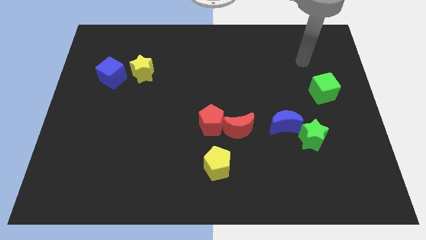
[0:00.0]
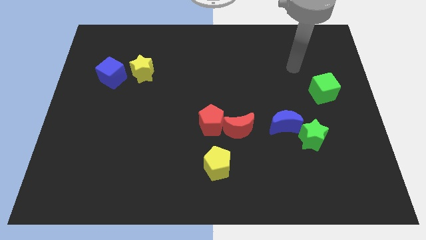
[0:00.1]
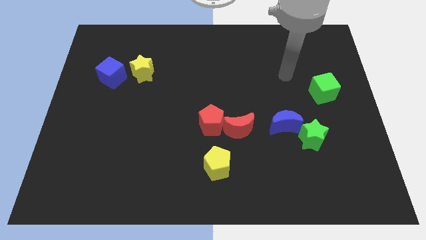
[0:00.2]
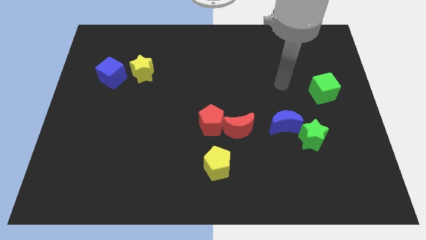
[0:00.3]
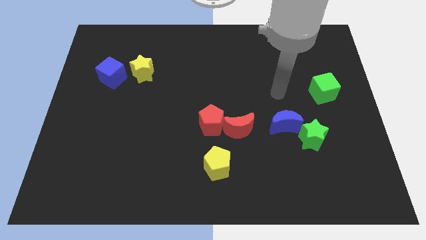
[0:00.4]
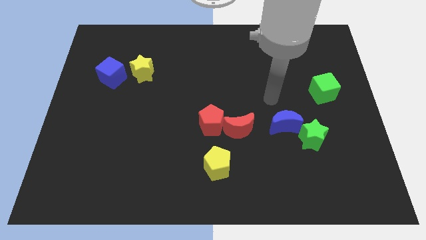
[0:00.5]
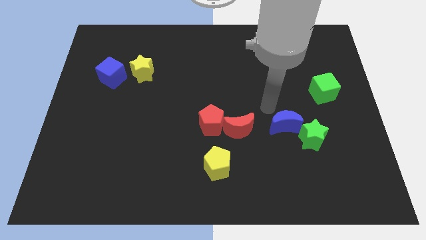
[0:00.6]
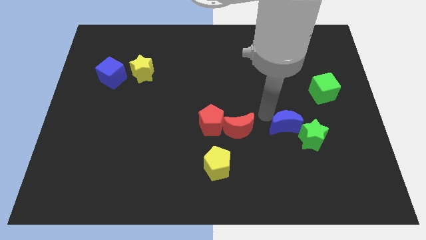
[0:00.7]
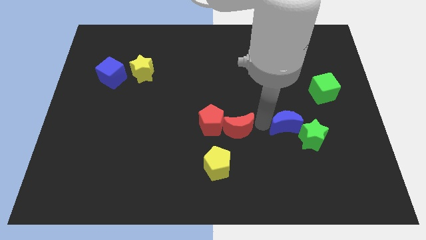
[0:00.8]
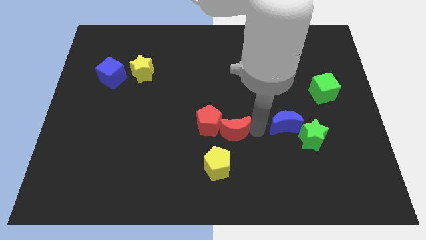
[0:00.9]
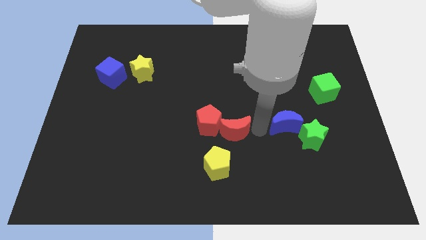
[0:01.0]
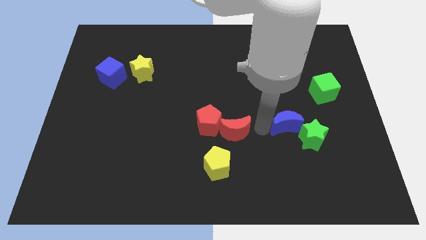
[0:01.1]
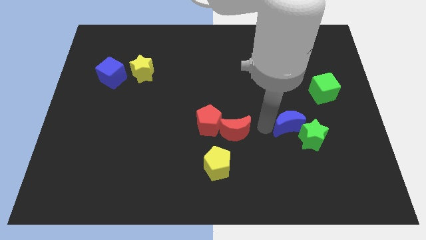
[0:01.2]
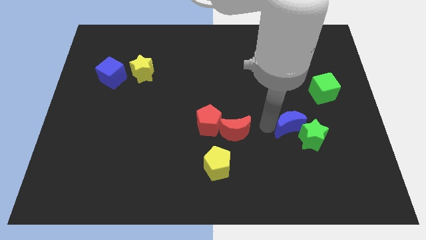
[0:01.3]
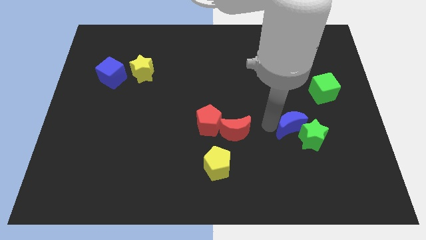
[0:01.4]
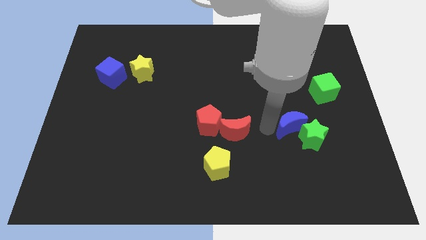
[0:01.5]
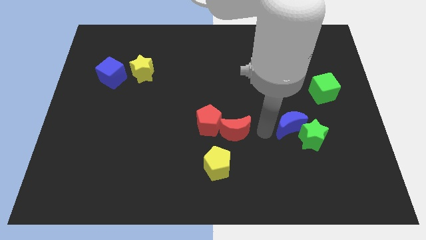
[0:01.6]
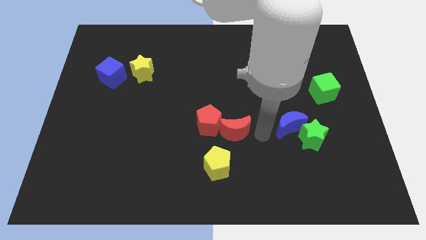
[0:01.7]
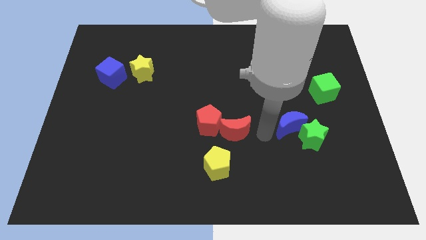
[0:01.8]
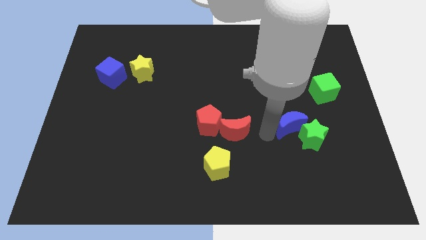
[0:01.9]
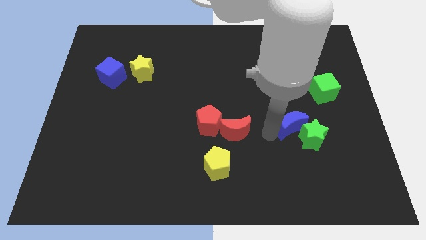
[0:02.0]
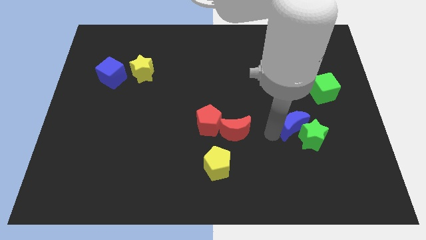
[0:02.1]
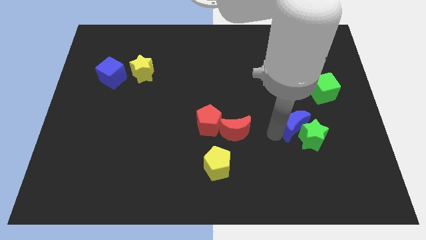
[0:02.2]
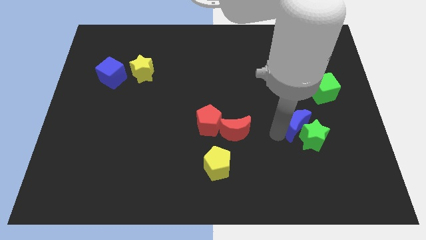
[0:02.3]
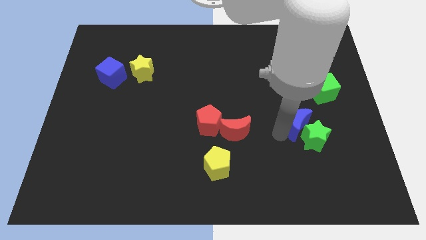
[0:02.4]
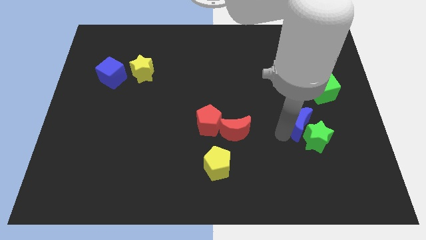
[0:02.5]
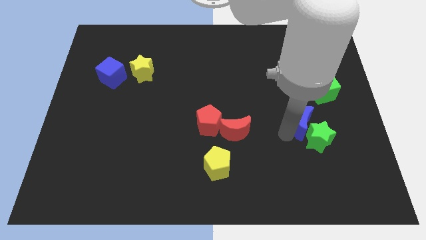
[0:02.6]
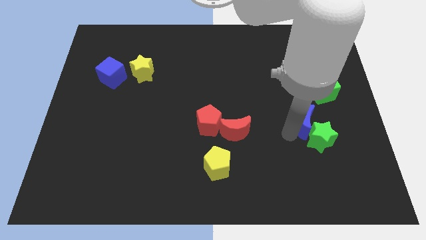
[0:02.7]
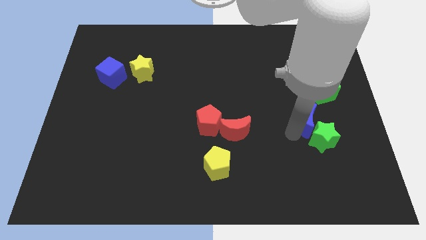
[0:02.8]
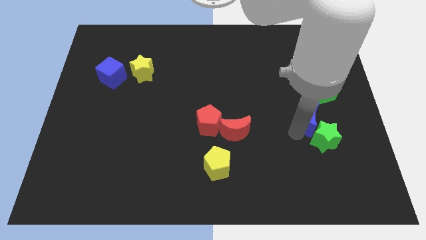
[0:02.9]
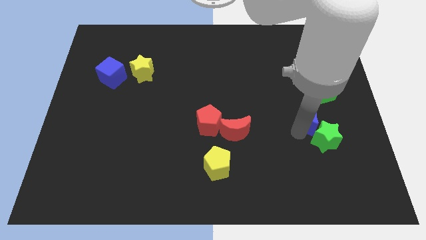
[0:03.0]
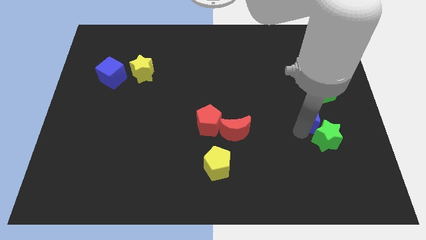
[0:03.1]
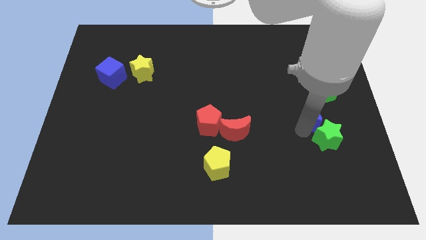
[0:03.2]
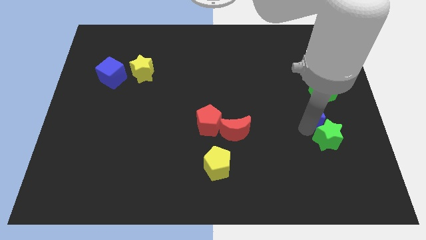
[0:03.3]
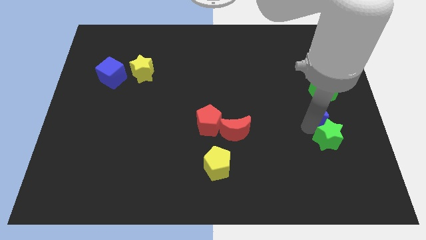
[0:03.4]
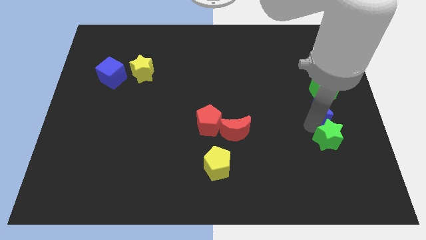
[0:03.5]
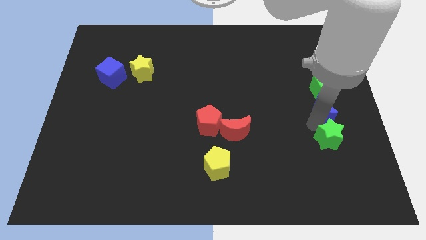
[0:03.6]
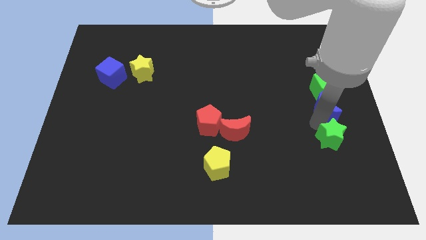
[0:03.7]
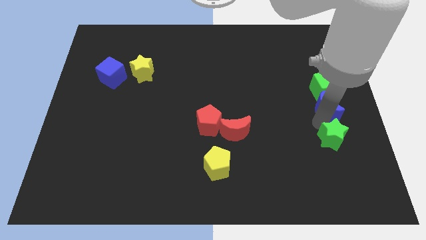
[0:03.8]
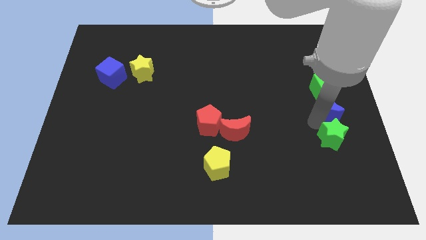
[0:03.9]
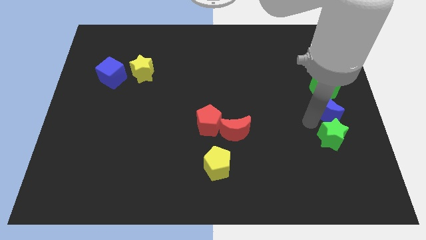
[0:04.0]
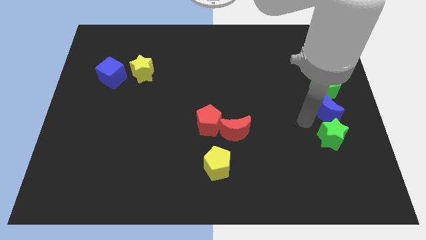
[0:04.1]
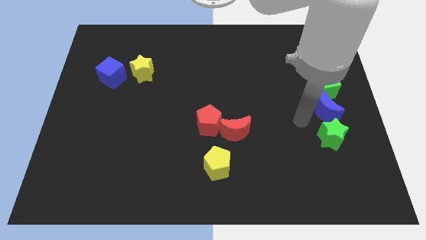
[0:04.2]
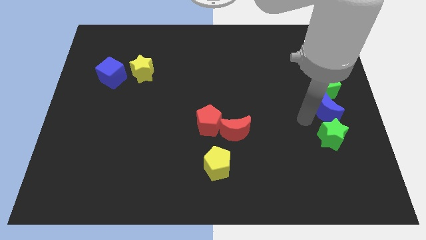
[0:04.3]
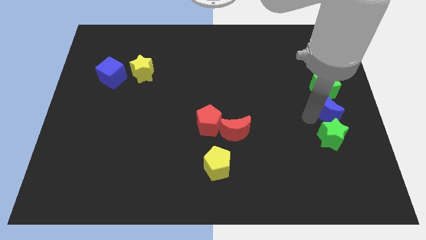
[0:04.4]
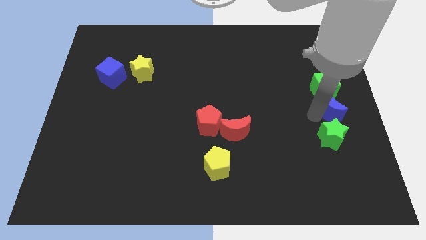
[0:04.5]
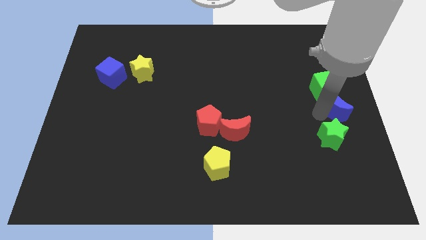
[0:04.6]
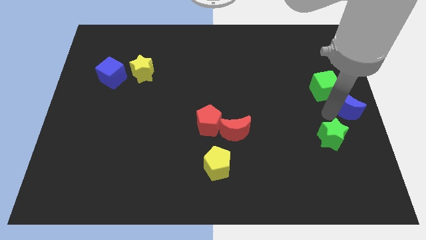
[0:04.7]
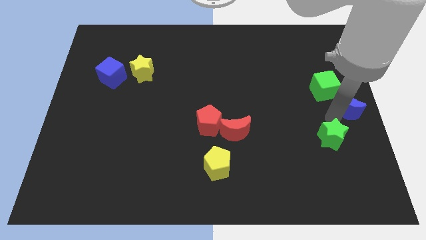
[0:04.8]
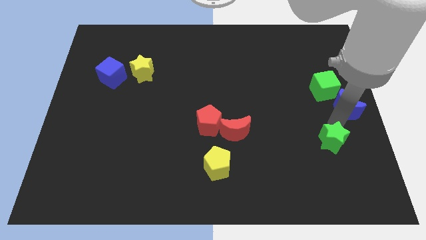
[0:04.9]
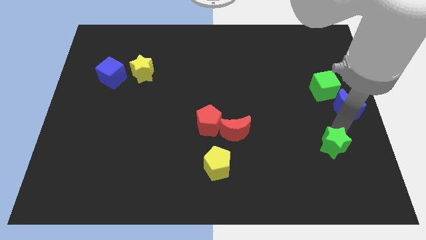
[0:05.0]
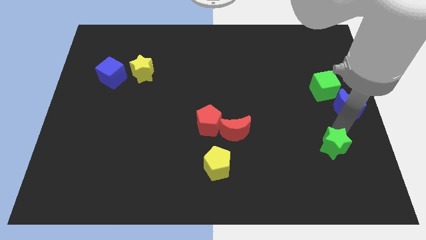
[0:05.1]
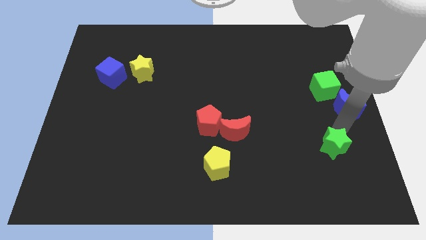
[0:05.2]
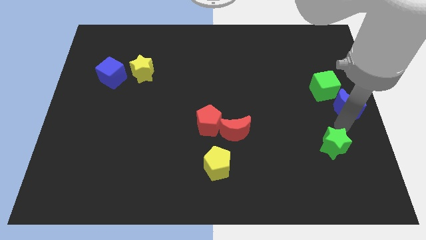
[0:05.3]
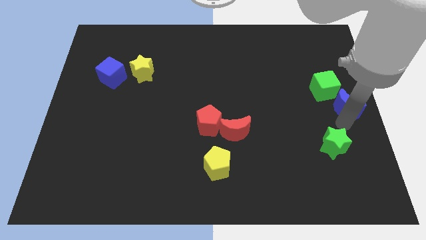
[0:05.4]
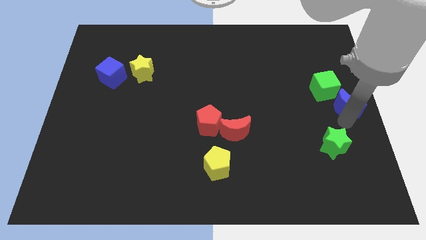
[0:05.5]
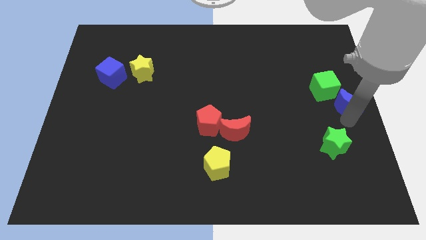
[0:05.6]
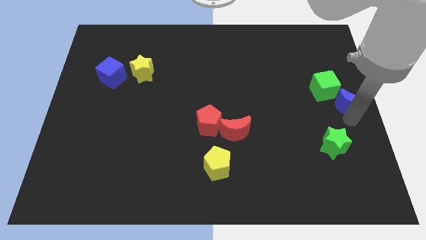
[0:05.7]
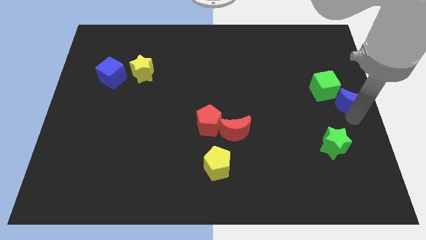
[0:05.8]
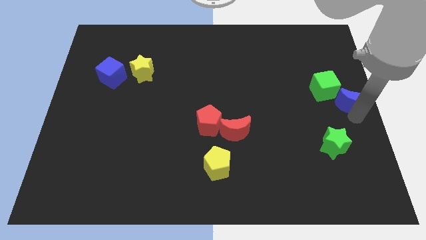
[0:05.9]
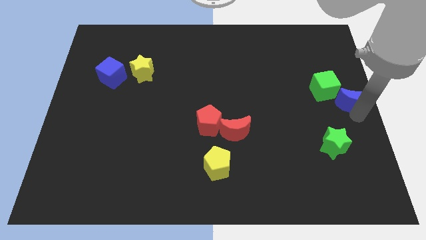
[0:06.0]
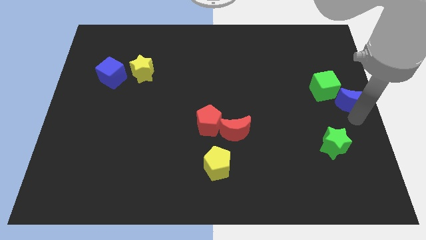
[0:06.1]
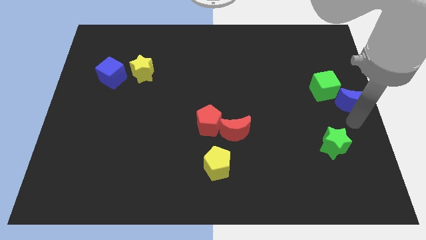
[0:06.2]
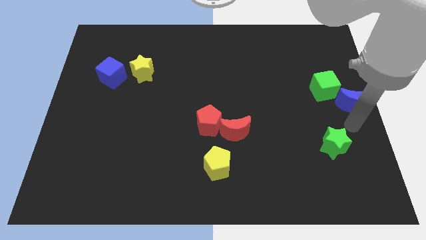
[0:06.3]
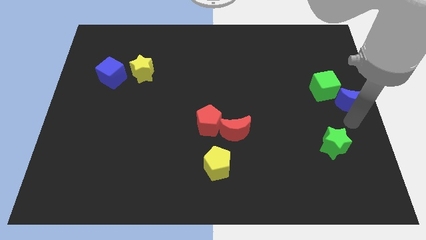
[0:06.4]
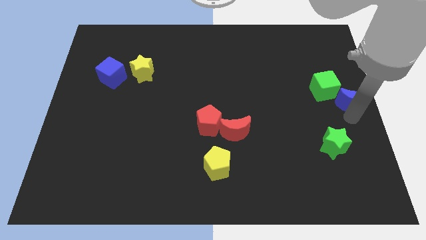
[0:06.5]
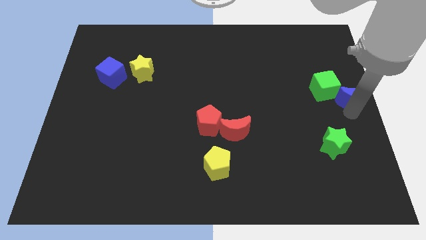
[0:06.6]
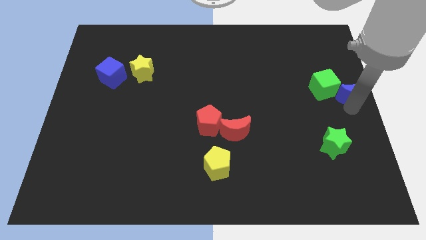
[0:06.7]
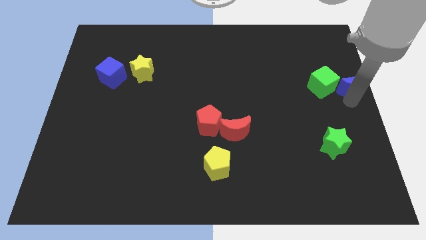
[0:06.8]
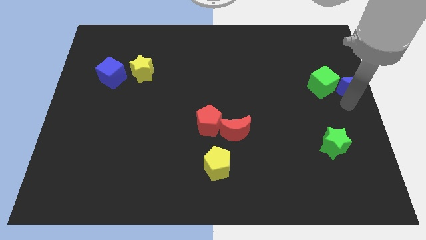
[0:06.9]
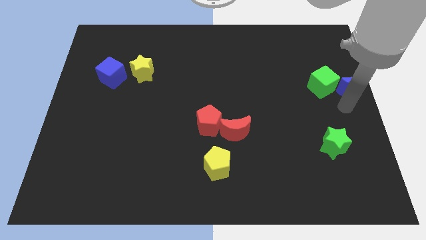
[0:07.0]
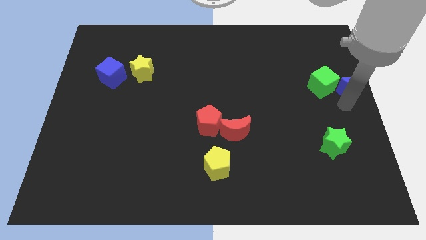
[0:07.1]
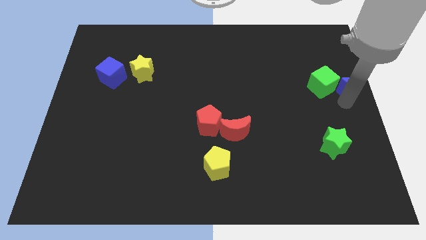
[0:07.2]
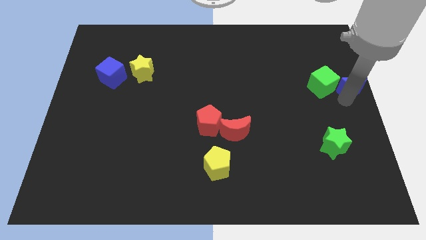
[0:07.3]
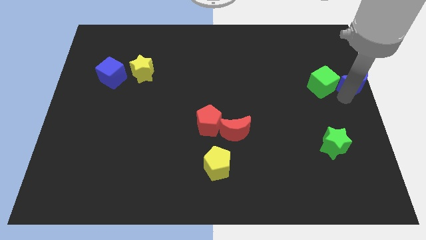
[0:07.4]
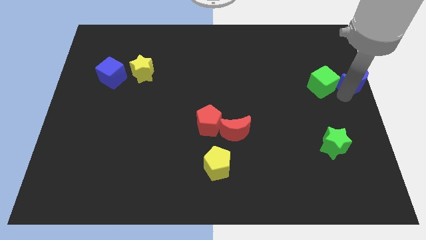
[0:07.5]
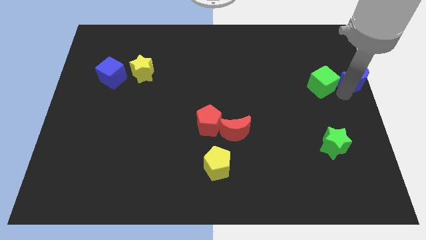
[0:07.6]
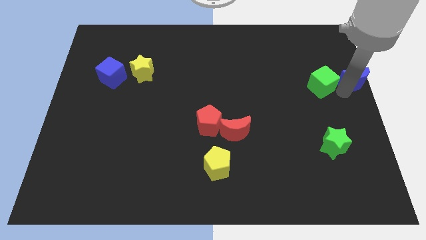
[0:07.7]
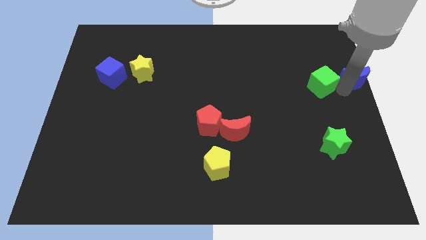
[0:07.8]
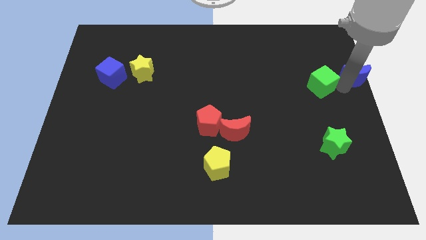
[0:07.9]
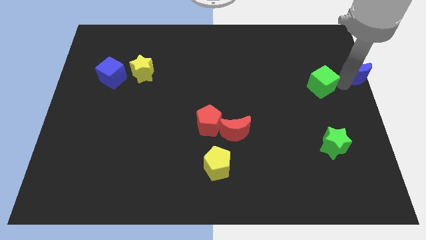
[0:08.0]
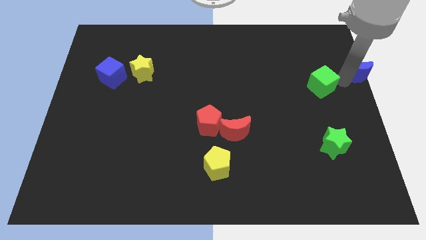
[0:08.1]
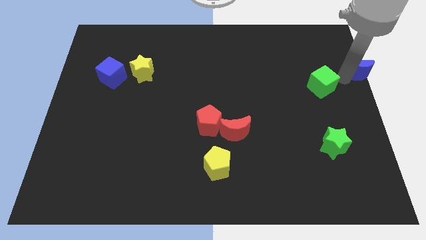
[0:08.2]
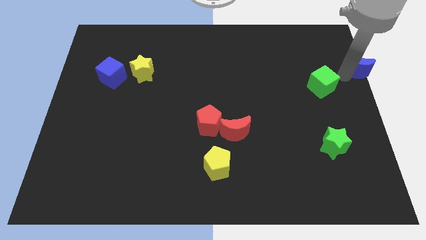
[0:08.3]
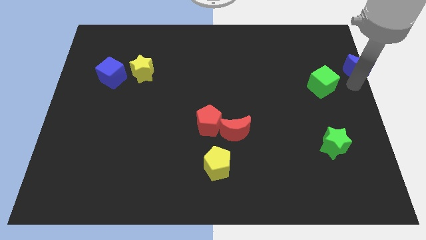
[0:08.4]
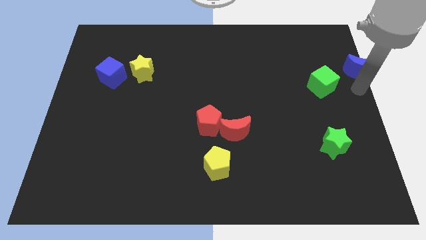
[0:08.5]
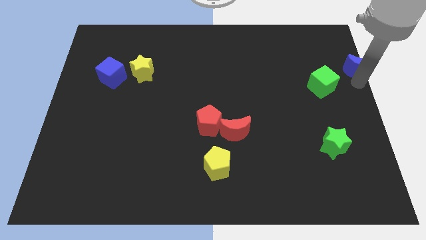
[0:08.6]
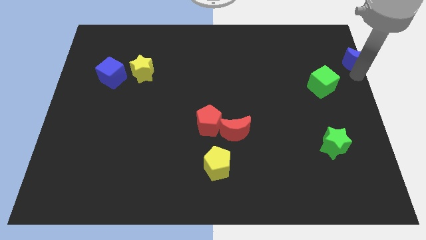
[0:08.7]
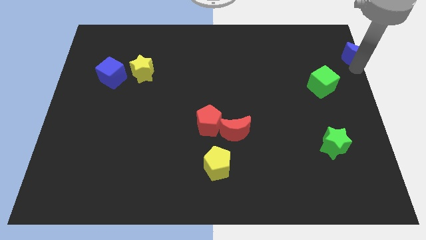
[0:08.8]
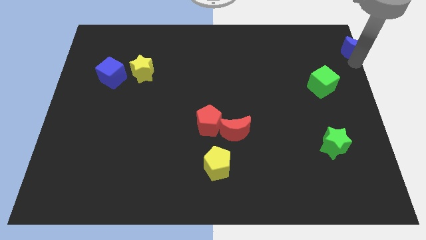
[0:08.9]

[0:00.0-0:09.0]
put the blue moon to the top right of the board
